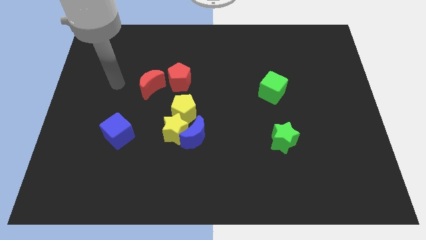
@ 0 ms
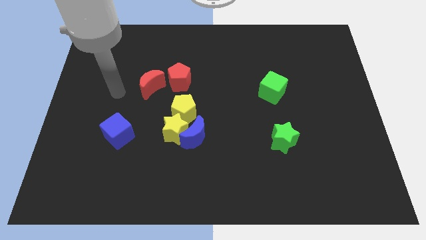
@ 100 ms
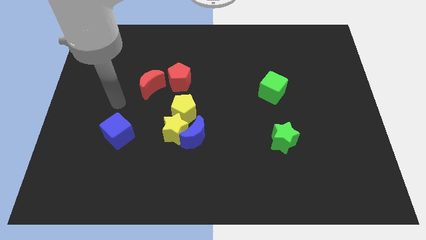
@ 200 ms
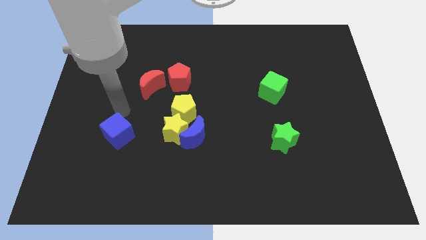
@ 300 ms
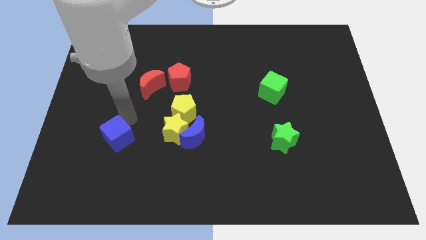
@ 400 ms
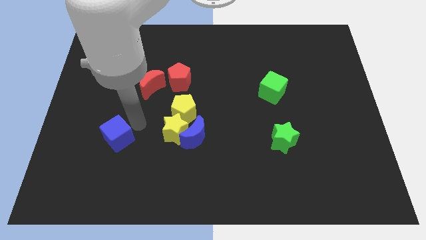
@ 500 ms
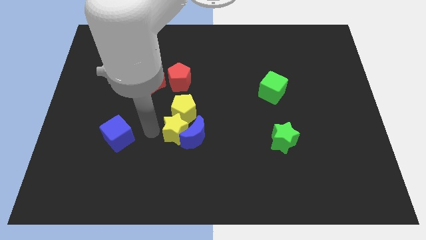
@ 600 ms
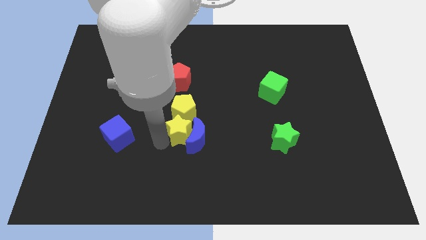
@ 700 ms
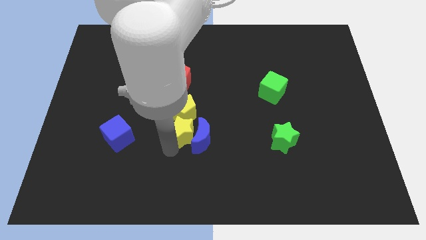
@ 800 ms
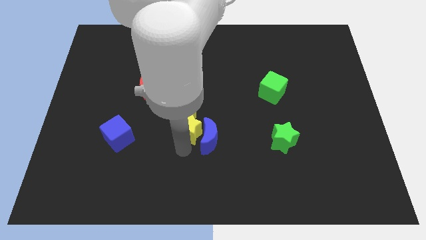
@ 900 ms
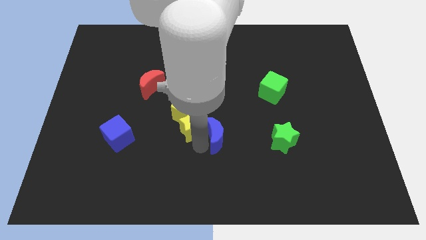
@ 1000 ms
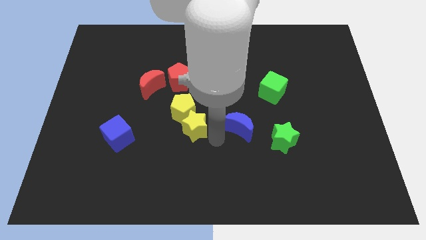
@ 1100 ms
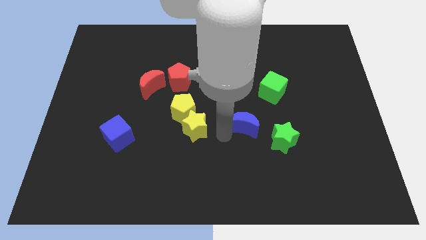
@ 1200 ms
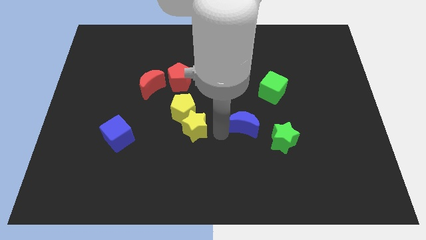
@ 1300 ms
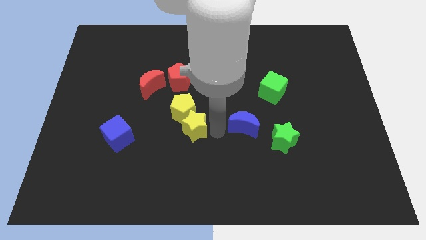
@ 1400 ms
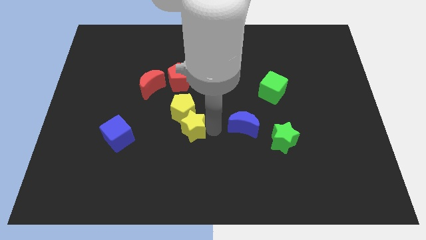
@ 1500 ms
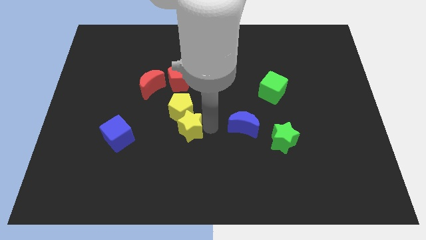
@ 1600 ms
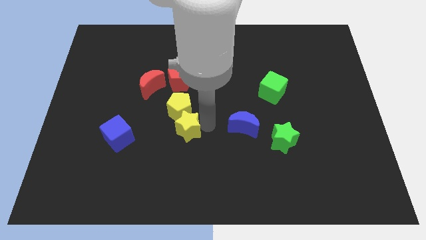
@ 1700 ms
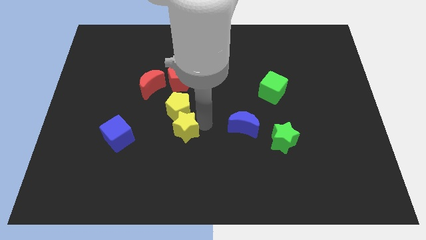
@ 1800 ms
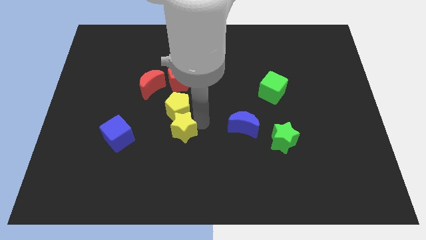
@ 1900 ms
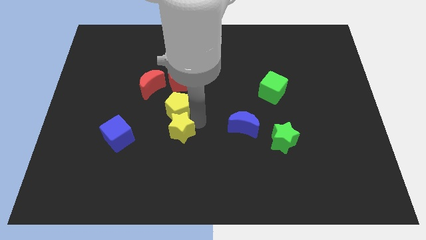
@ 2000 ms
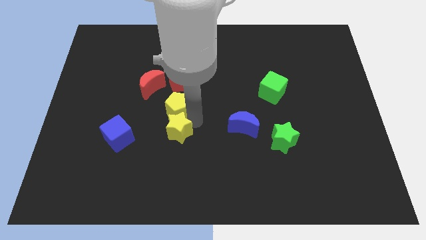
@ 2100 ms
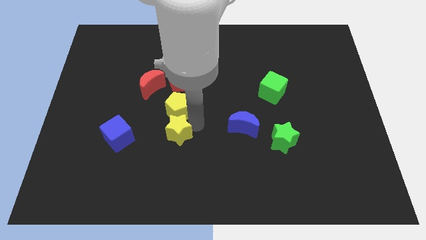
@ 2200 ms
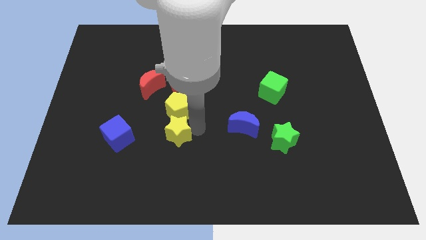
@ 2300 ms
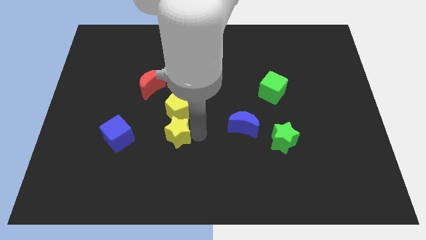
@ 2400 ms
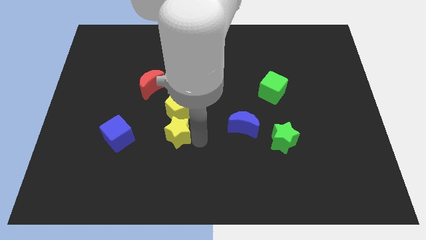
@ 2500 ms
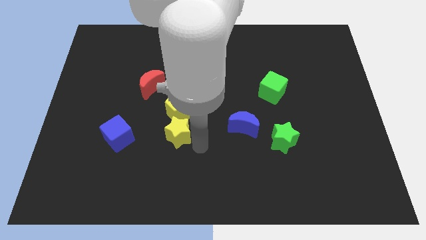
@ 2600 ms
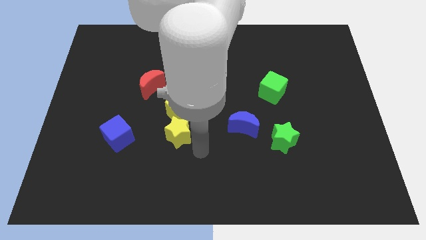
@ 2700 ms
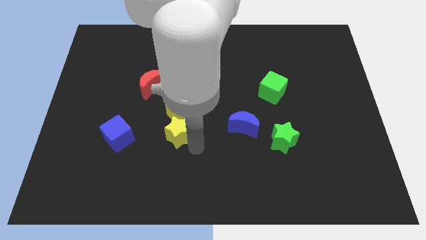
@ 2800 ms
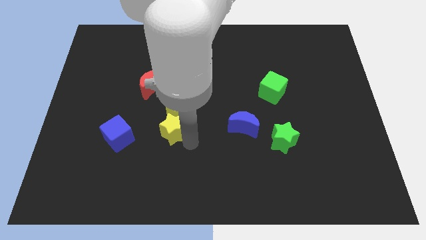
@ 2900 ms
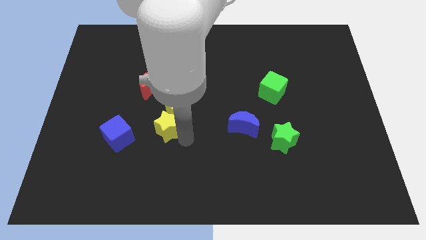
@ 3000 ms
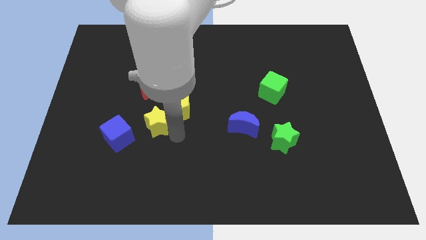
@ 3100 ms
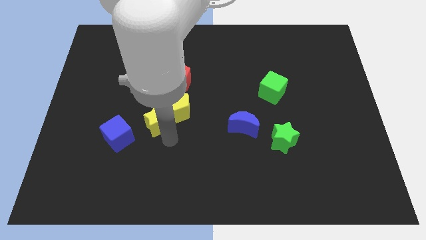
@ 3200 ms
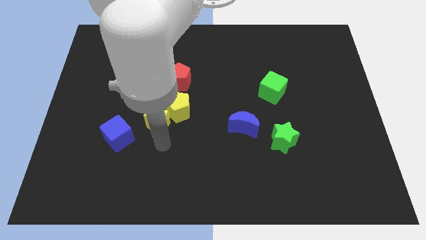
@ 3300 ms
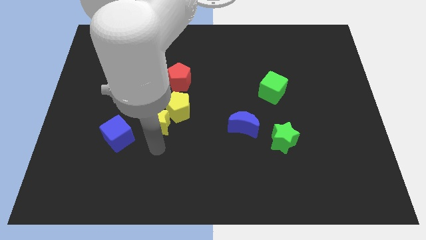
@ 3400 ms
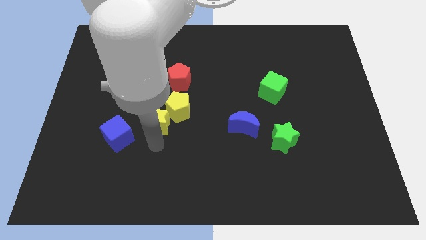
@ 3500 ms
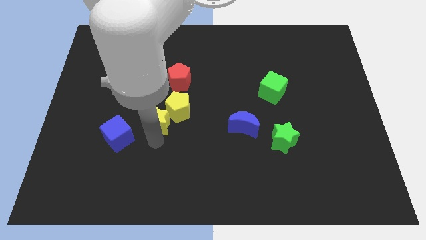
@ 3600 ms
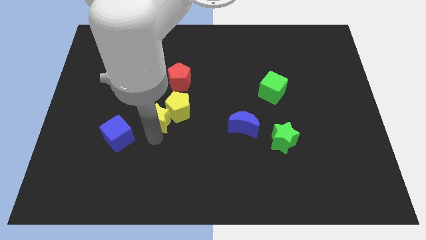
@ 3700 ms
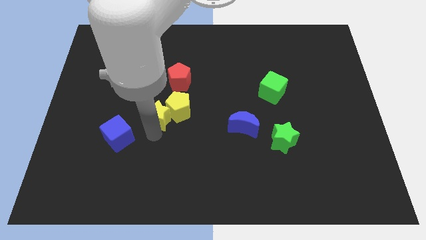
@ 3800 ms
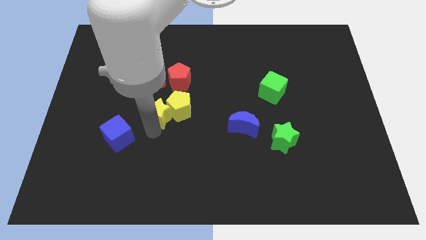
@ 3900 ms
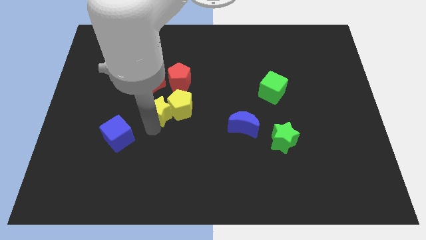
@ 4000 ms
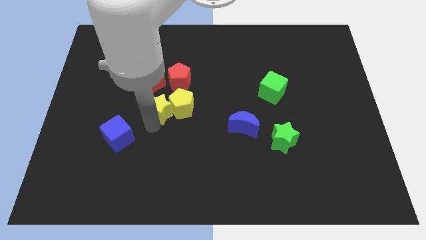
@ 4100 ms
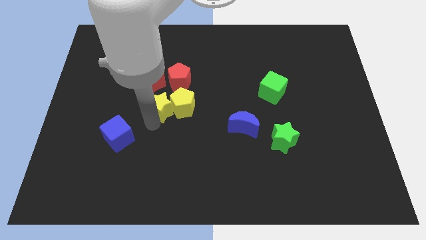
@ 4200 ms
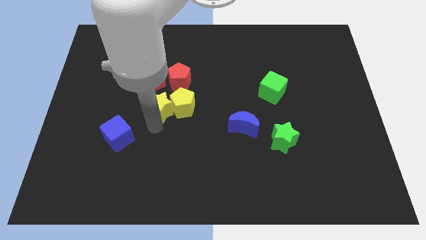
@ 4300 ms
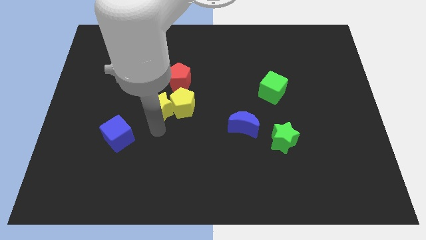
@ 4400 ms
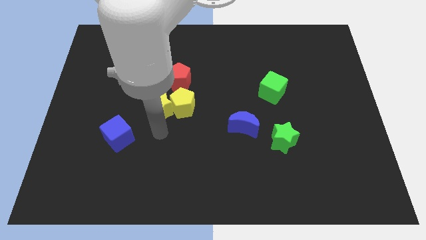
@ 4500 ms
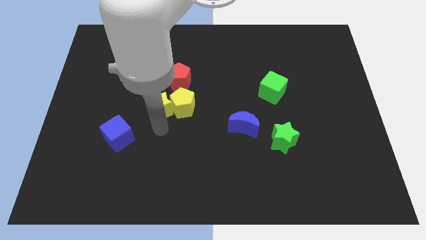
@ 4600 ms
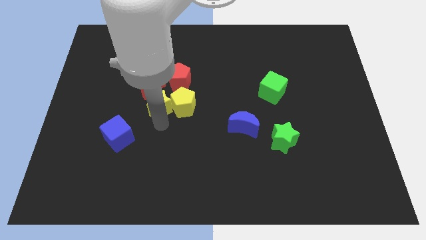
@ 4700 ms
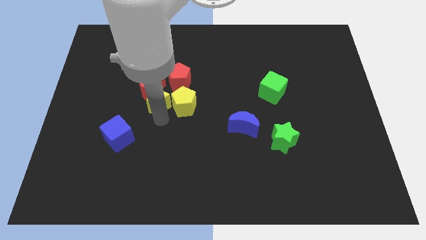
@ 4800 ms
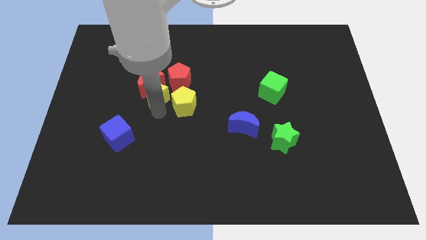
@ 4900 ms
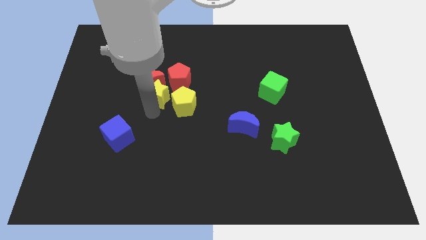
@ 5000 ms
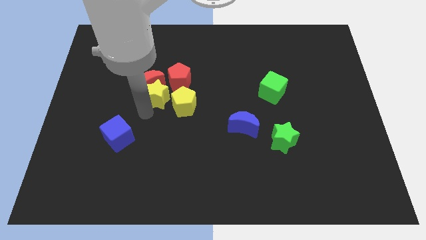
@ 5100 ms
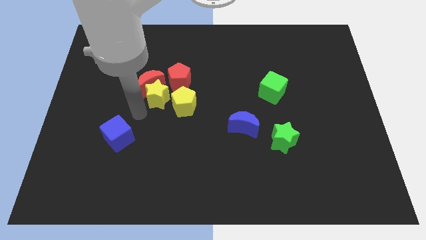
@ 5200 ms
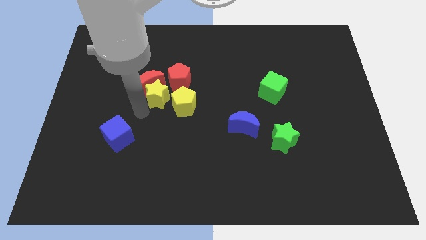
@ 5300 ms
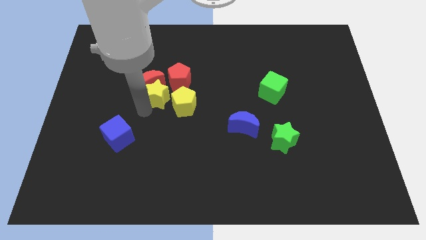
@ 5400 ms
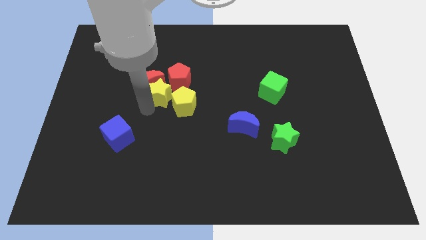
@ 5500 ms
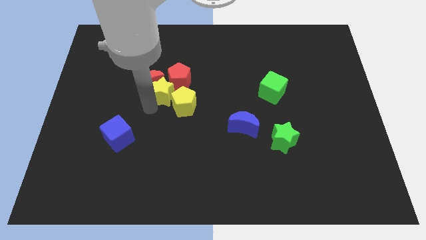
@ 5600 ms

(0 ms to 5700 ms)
move the yellow star close to the red pentagon
